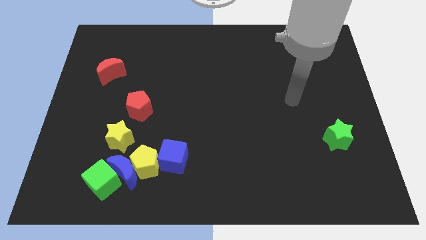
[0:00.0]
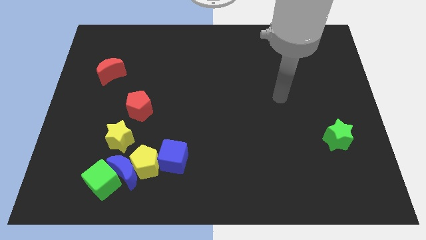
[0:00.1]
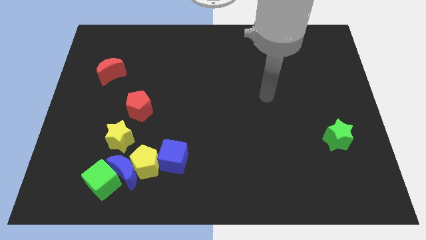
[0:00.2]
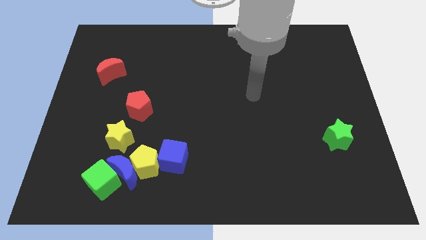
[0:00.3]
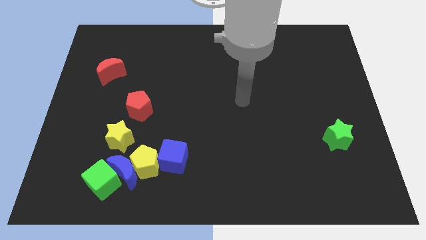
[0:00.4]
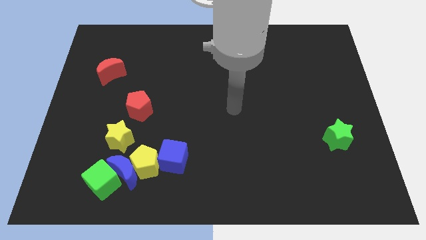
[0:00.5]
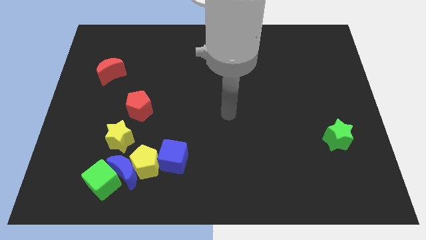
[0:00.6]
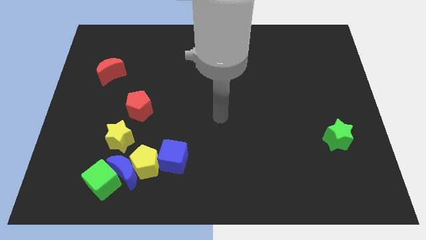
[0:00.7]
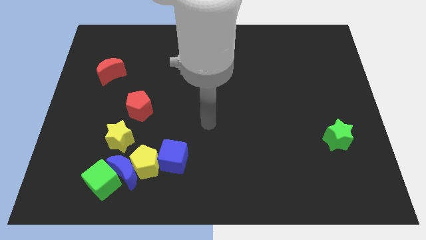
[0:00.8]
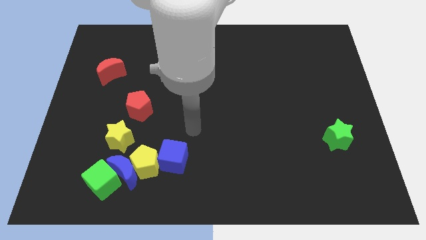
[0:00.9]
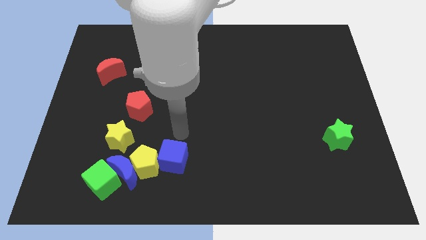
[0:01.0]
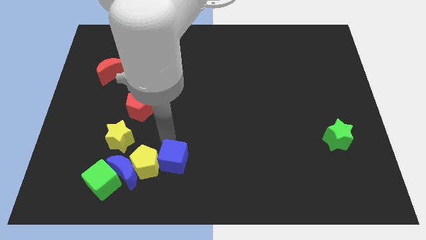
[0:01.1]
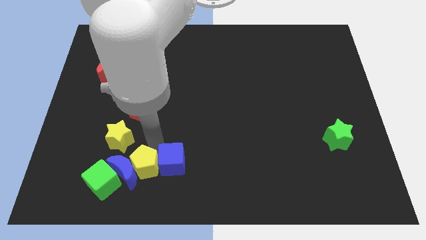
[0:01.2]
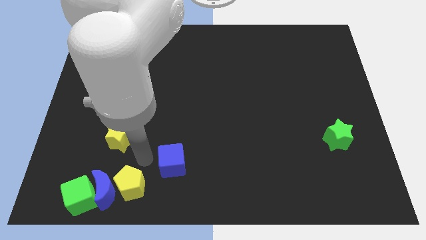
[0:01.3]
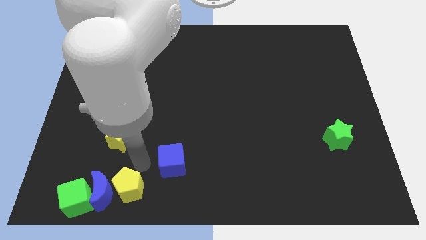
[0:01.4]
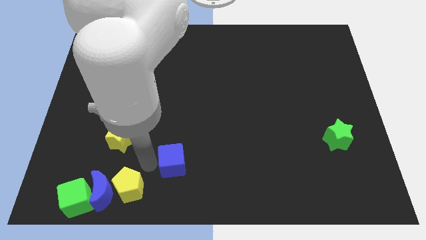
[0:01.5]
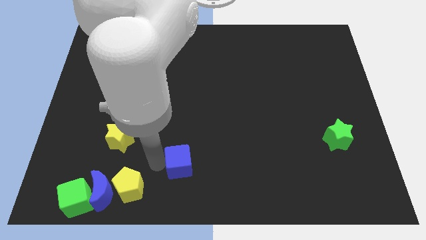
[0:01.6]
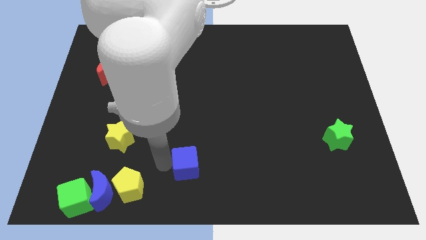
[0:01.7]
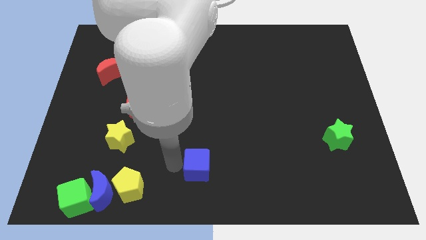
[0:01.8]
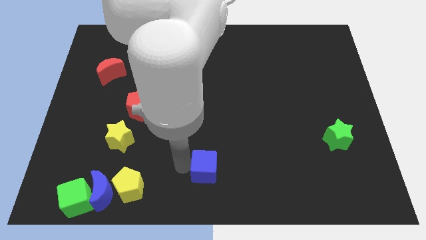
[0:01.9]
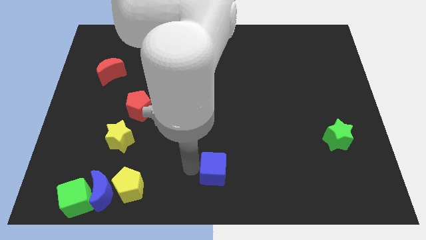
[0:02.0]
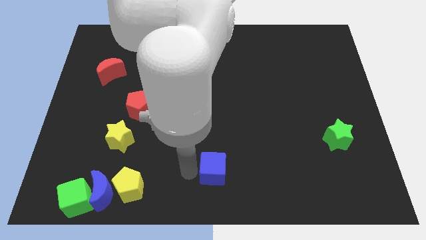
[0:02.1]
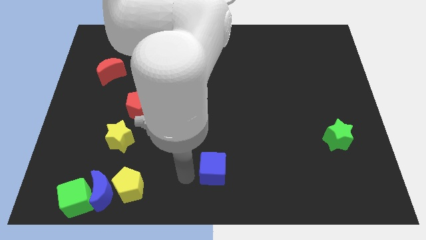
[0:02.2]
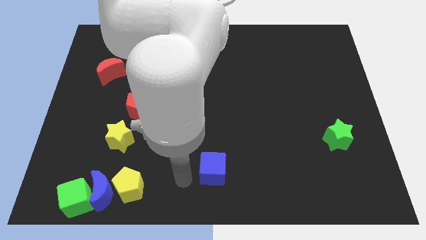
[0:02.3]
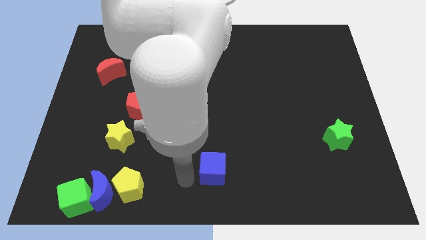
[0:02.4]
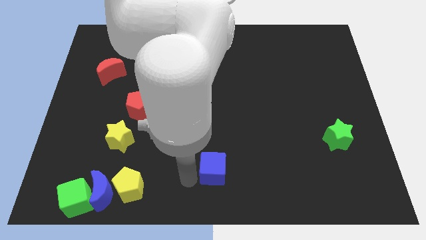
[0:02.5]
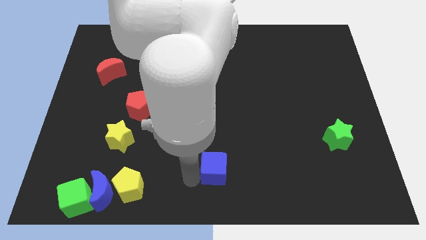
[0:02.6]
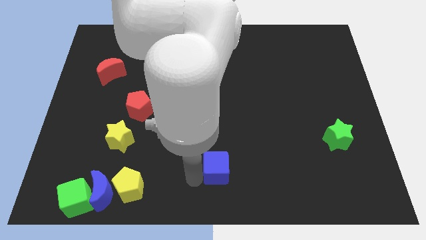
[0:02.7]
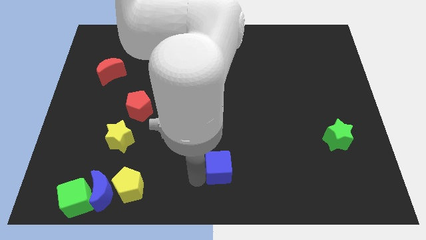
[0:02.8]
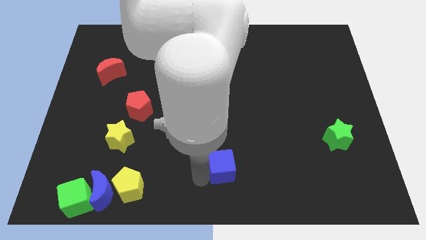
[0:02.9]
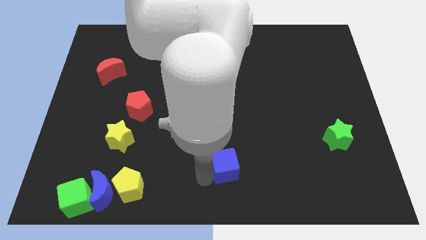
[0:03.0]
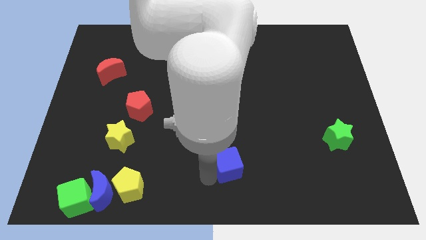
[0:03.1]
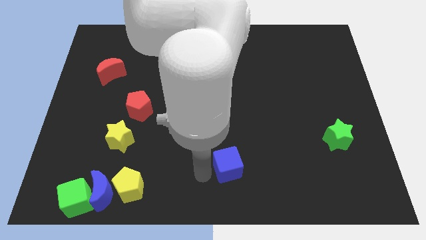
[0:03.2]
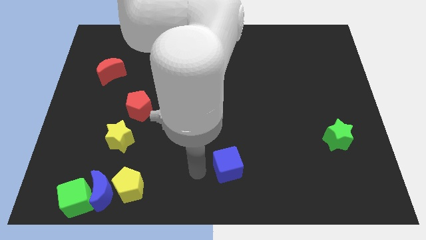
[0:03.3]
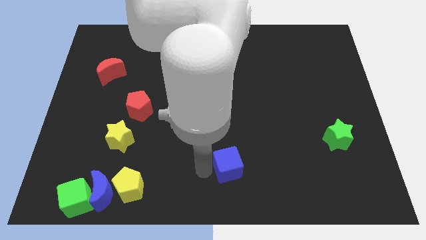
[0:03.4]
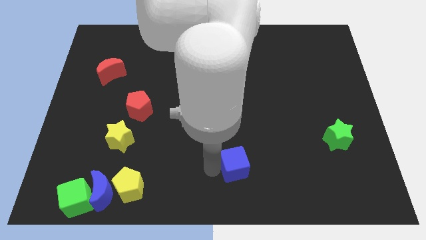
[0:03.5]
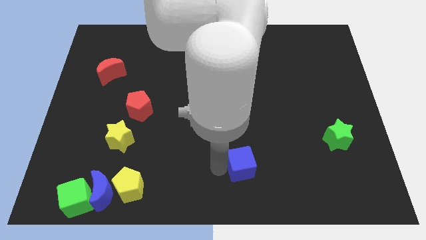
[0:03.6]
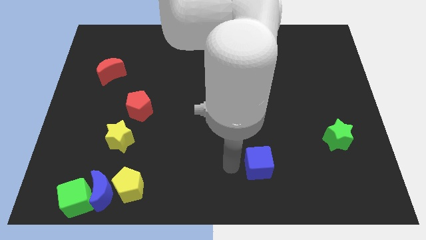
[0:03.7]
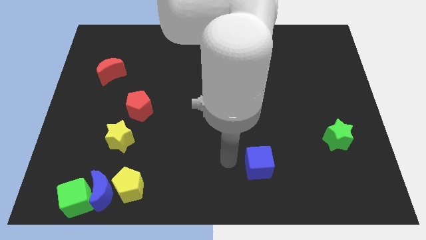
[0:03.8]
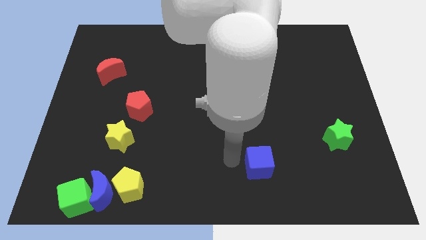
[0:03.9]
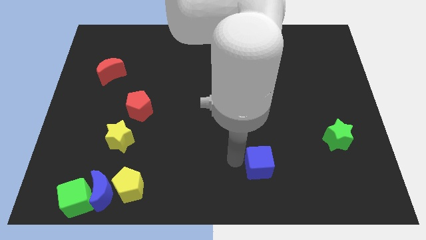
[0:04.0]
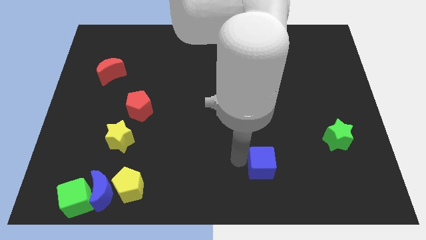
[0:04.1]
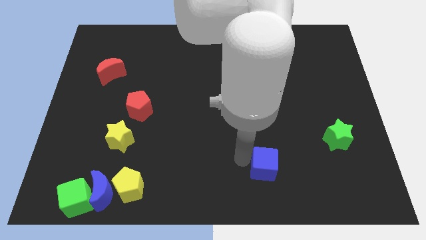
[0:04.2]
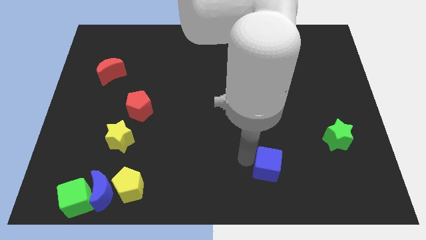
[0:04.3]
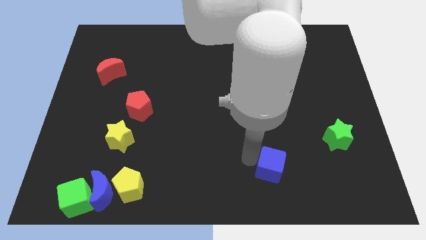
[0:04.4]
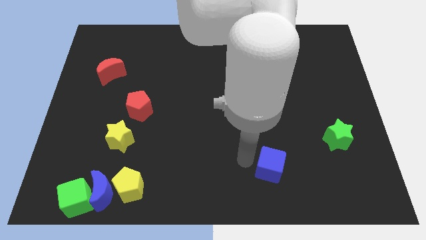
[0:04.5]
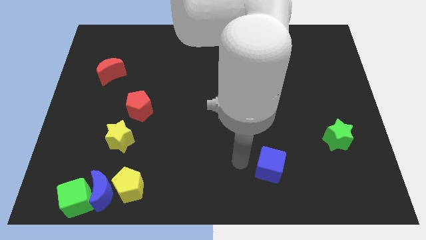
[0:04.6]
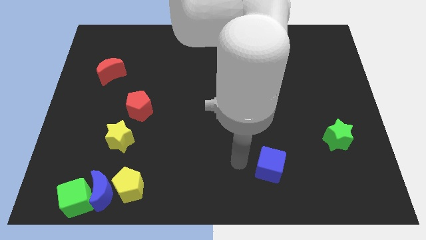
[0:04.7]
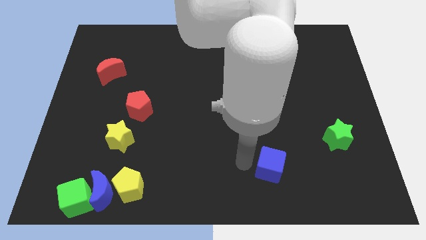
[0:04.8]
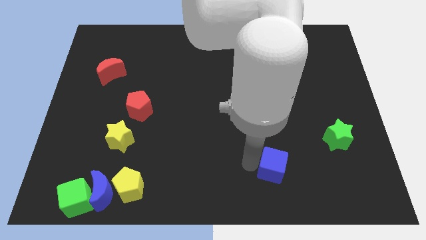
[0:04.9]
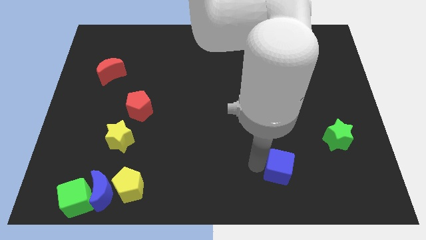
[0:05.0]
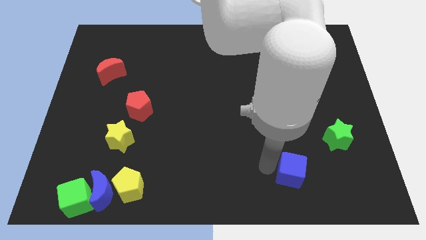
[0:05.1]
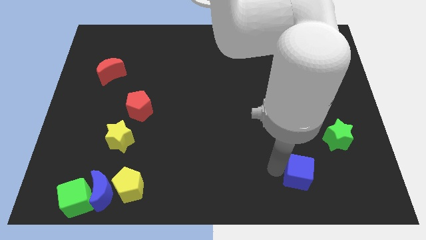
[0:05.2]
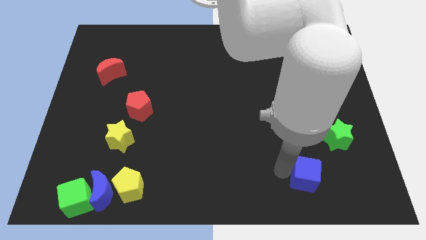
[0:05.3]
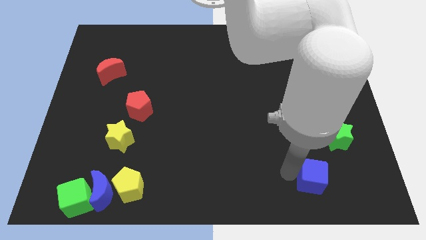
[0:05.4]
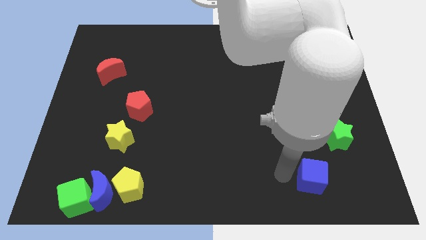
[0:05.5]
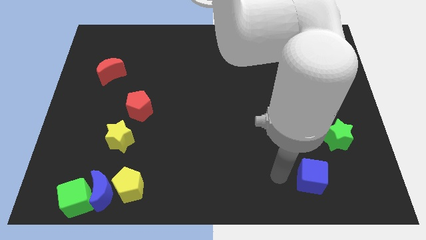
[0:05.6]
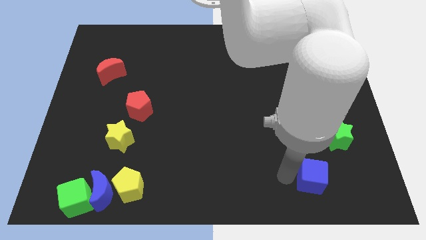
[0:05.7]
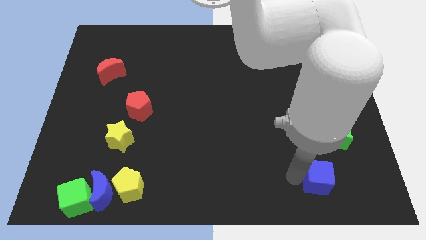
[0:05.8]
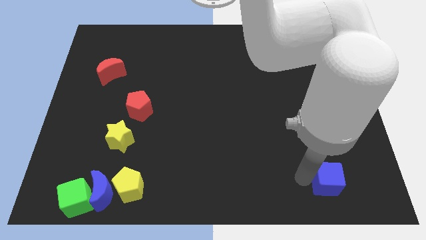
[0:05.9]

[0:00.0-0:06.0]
move the blue cube to the bottom side of the green star

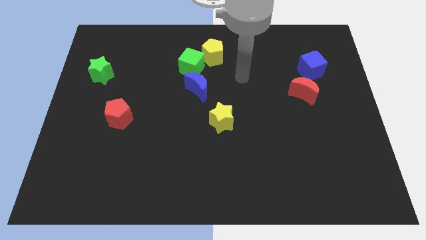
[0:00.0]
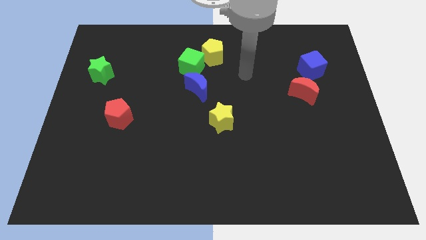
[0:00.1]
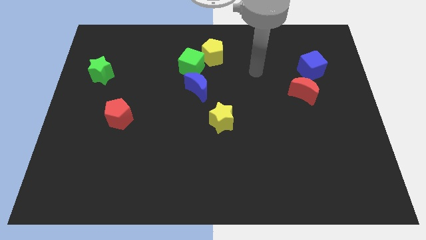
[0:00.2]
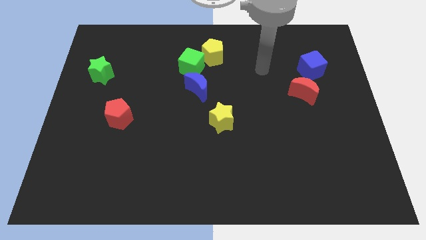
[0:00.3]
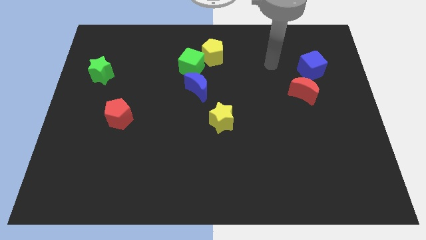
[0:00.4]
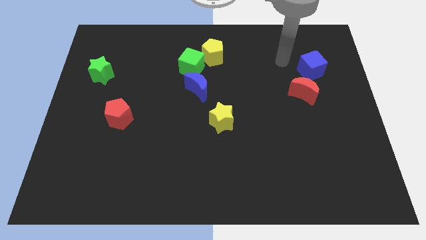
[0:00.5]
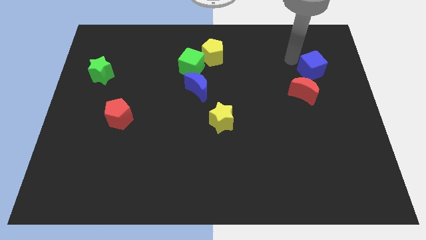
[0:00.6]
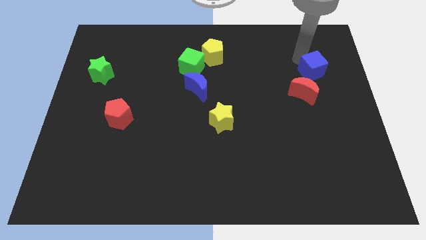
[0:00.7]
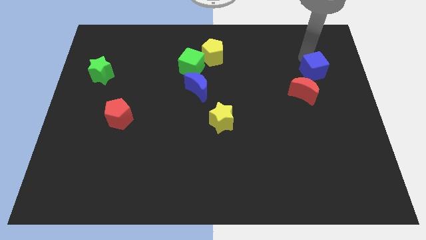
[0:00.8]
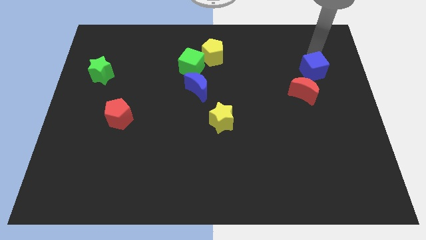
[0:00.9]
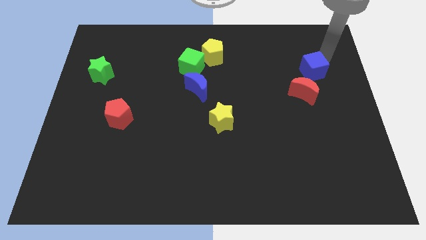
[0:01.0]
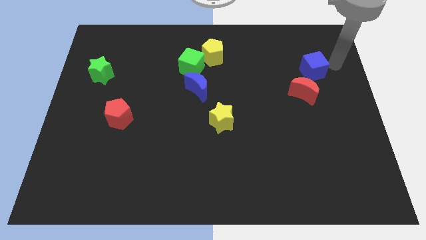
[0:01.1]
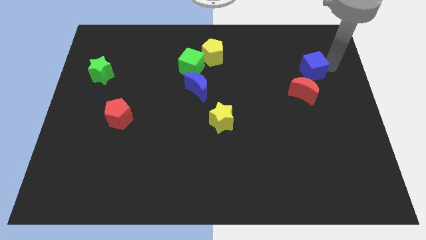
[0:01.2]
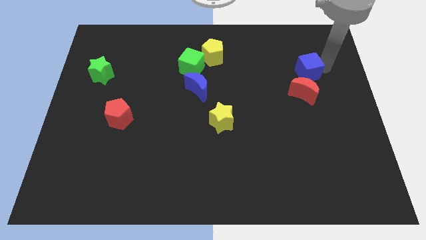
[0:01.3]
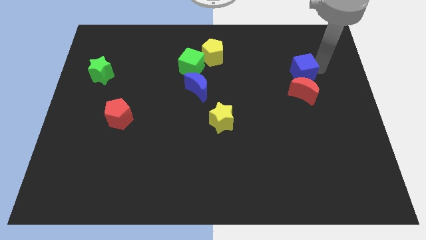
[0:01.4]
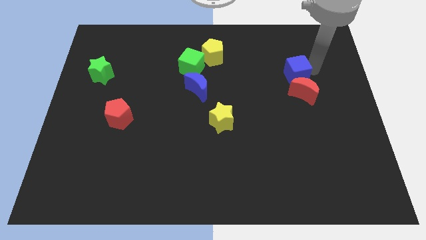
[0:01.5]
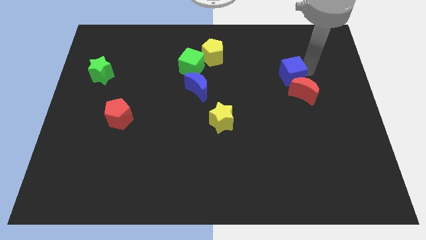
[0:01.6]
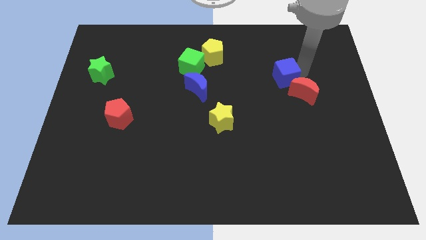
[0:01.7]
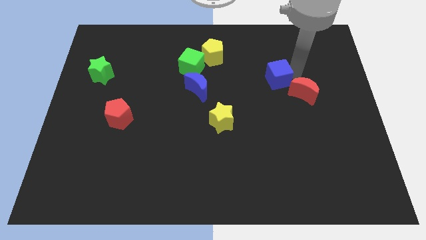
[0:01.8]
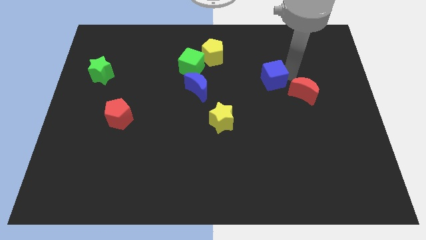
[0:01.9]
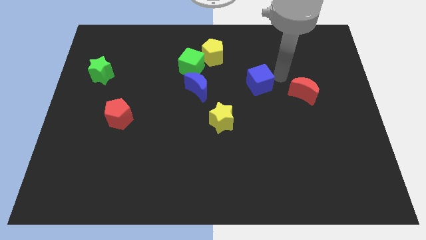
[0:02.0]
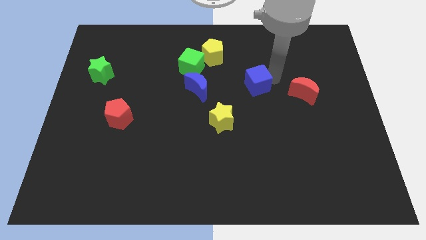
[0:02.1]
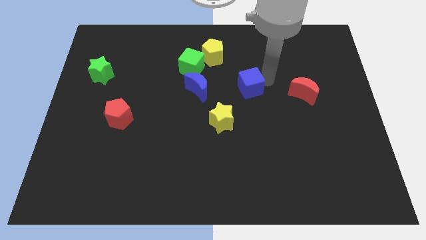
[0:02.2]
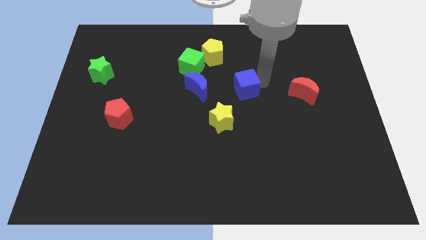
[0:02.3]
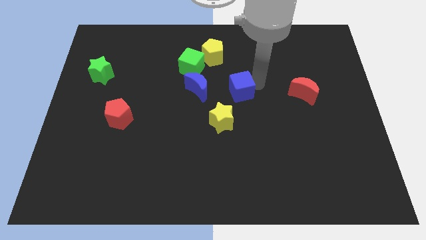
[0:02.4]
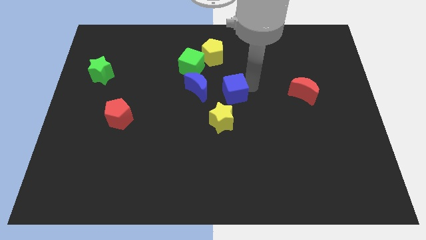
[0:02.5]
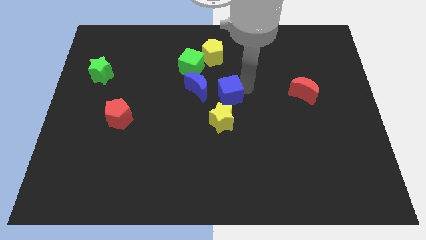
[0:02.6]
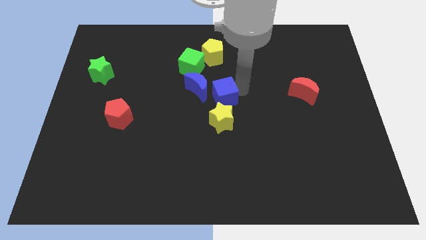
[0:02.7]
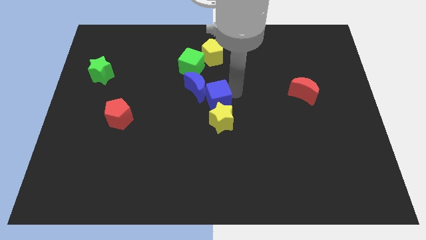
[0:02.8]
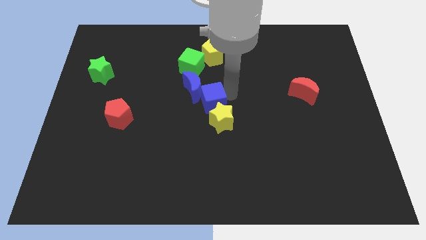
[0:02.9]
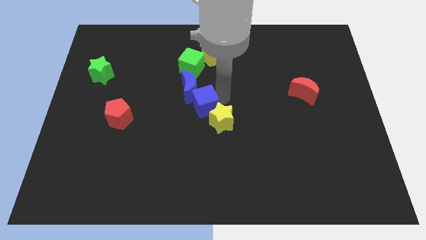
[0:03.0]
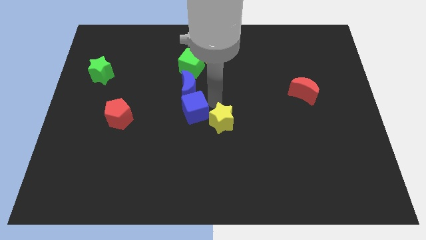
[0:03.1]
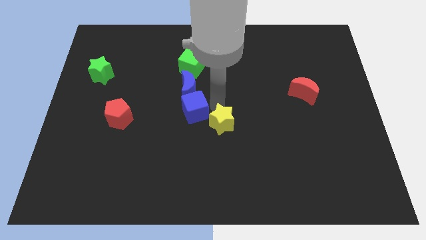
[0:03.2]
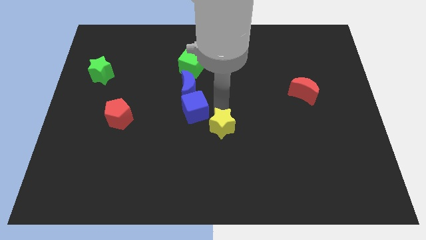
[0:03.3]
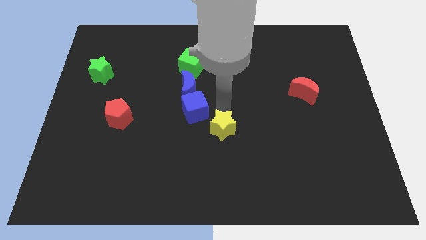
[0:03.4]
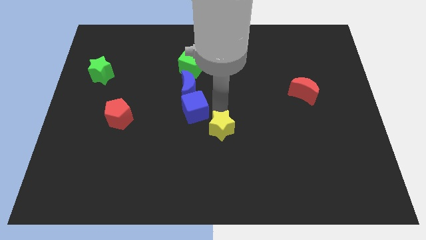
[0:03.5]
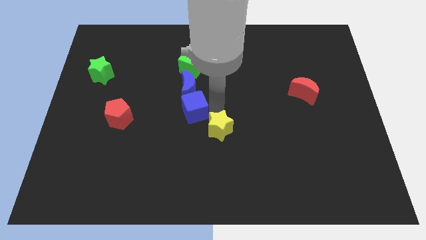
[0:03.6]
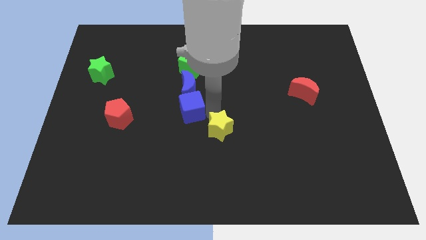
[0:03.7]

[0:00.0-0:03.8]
push the blue cube to the bottom left of the blue moon
